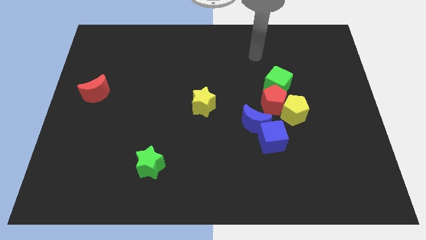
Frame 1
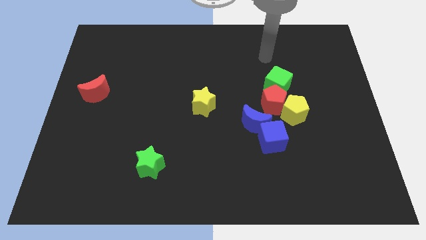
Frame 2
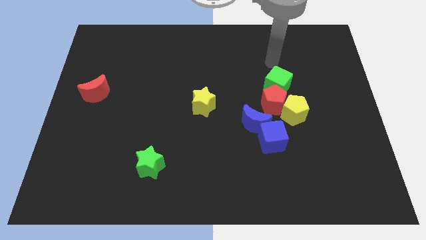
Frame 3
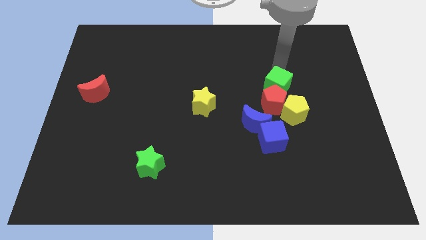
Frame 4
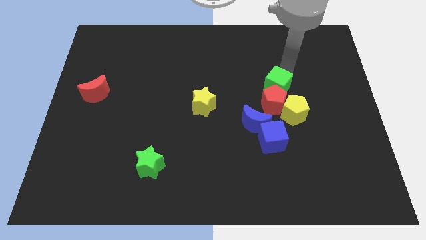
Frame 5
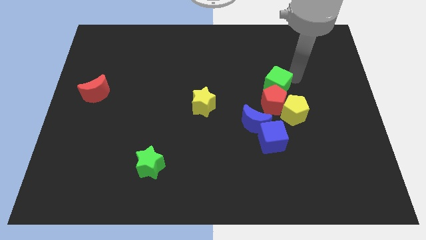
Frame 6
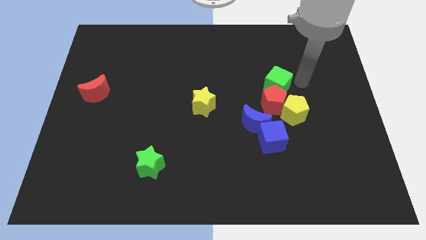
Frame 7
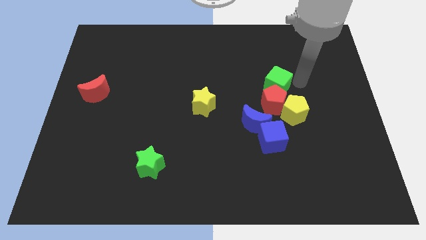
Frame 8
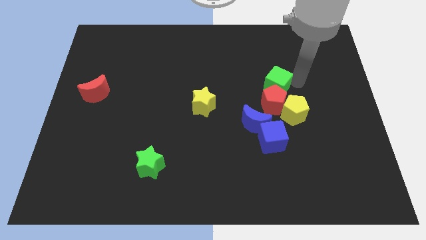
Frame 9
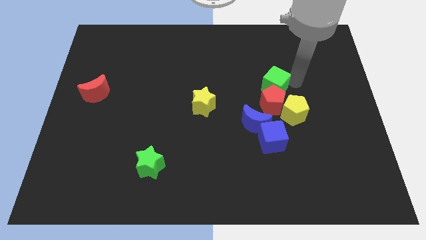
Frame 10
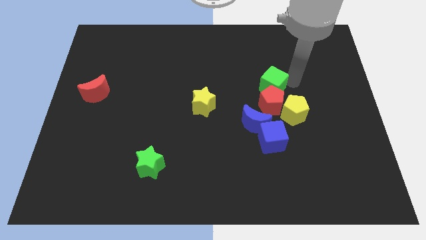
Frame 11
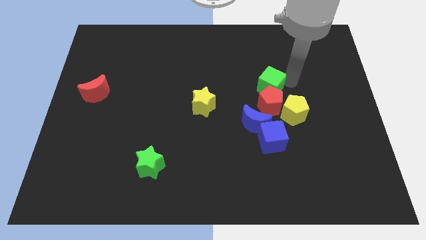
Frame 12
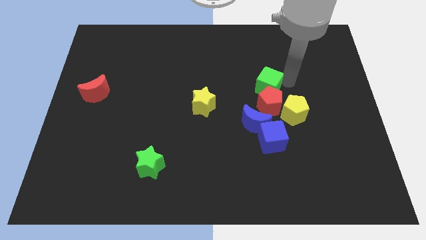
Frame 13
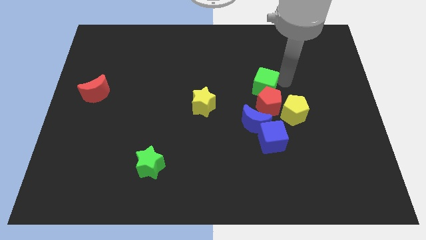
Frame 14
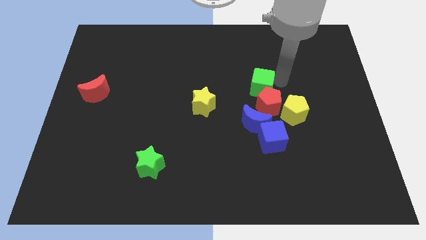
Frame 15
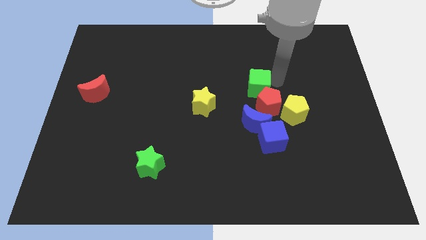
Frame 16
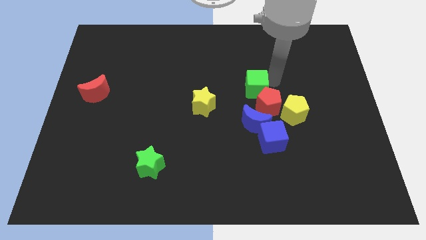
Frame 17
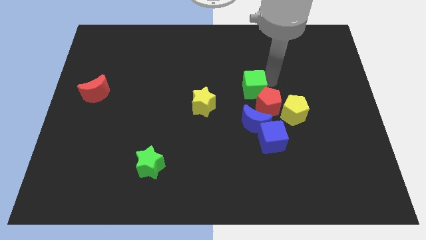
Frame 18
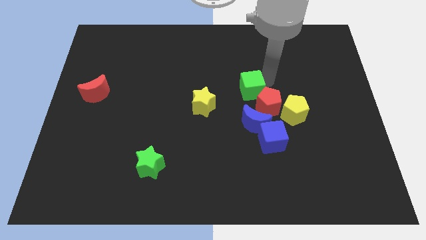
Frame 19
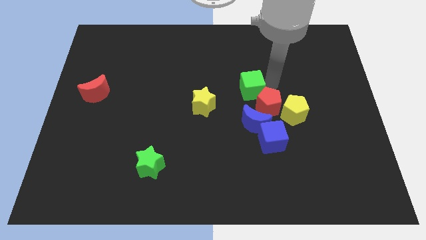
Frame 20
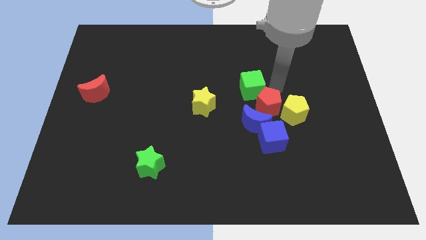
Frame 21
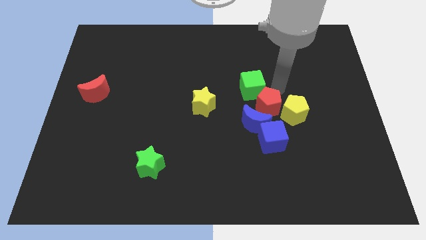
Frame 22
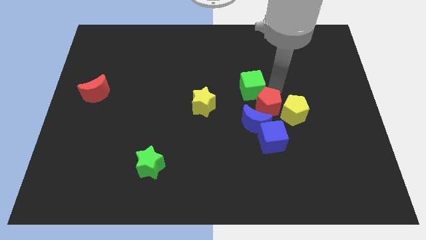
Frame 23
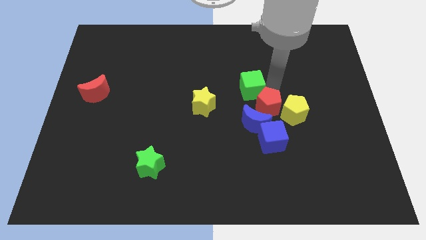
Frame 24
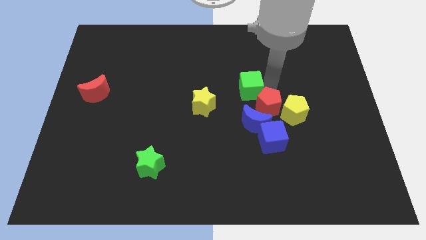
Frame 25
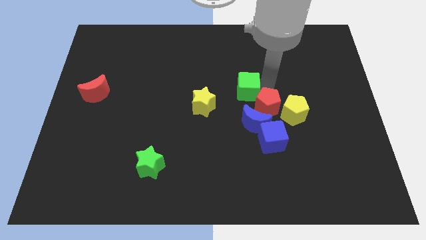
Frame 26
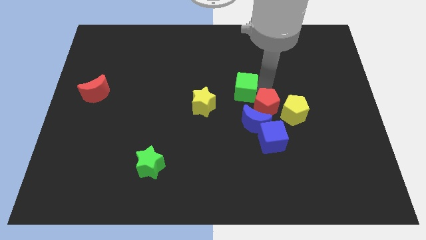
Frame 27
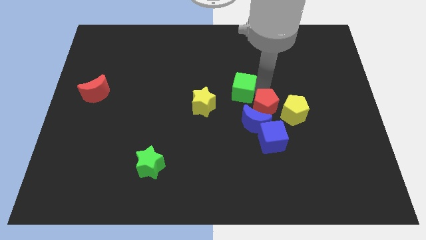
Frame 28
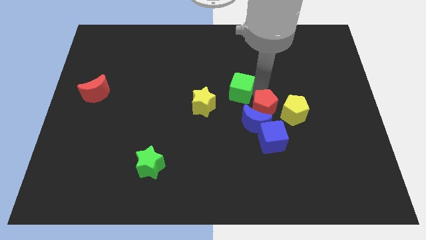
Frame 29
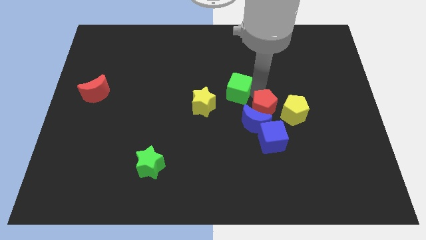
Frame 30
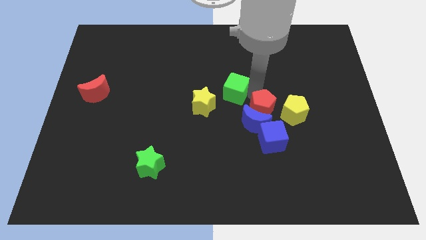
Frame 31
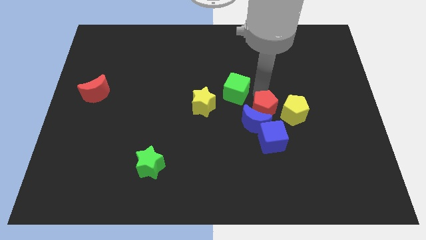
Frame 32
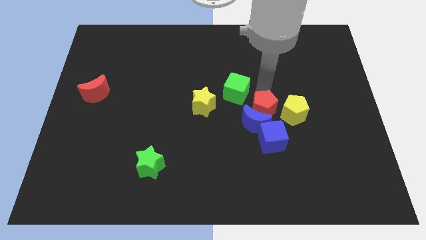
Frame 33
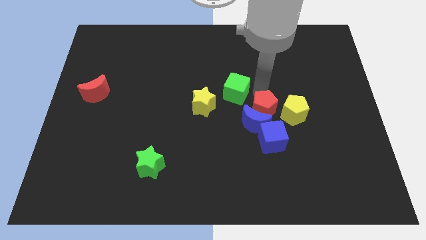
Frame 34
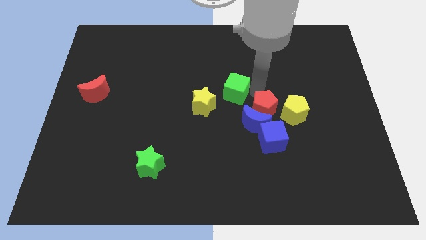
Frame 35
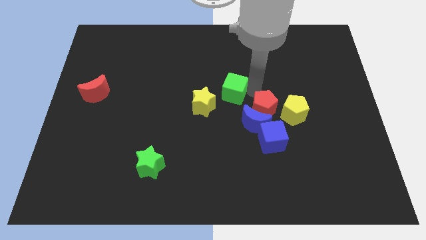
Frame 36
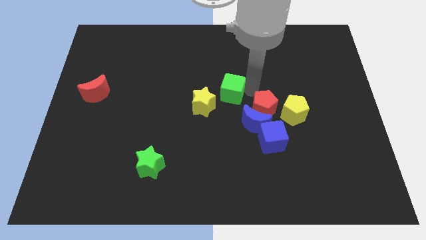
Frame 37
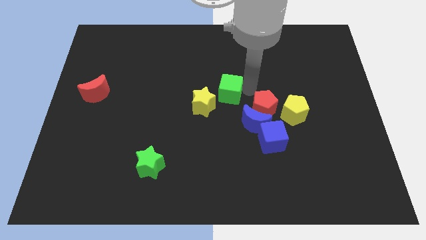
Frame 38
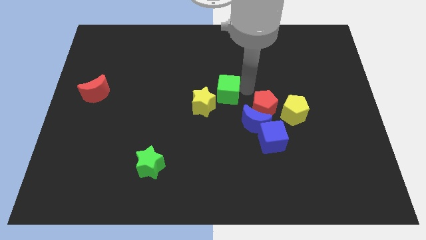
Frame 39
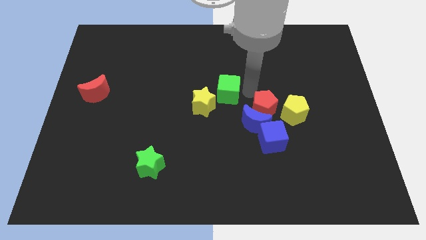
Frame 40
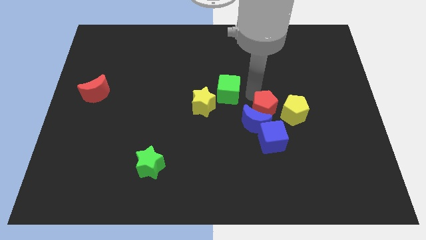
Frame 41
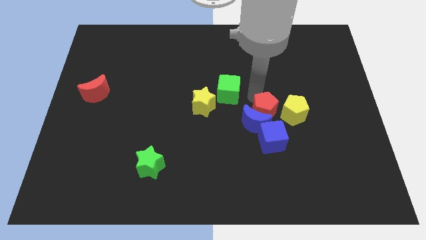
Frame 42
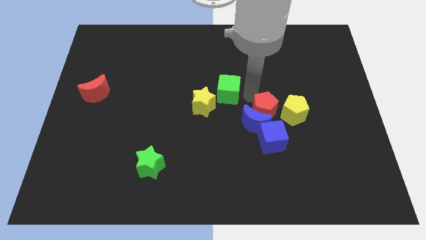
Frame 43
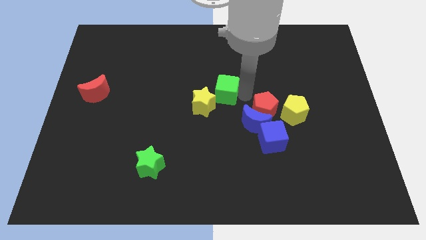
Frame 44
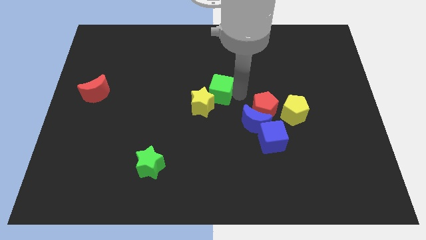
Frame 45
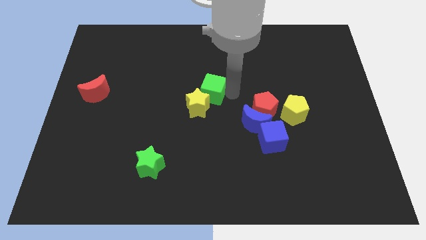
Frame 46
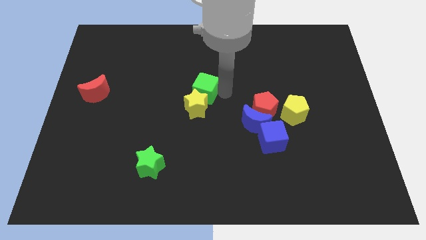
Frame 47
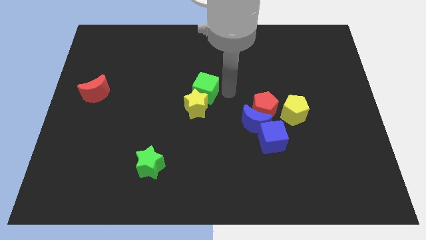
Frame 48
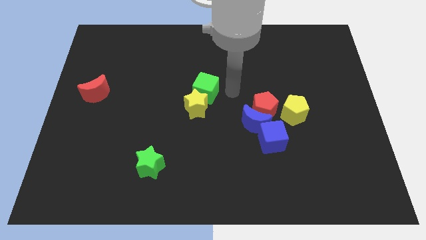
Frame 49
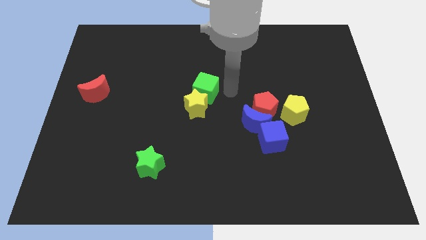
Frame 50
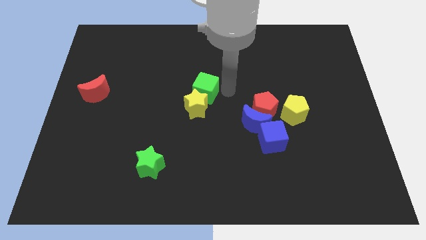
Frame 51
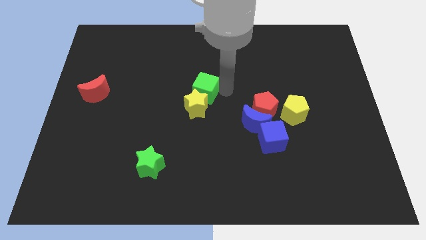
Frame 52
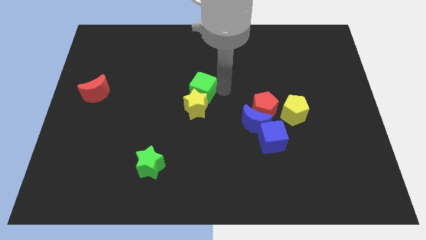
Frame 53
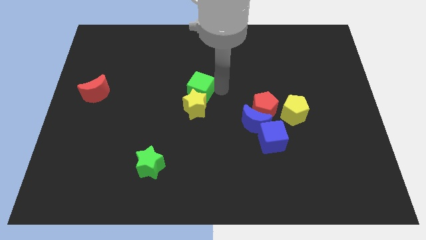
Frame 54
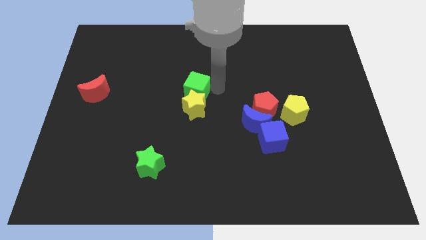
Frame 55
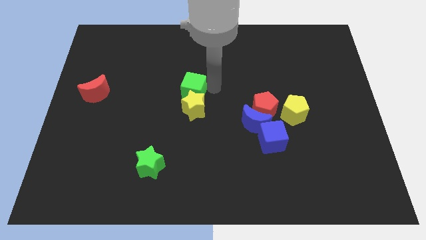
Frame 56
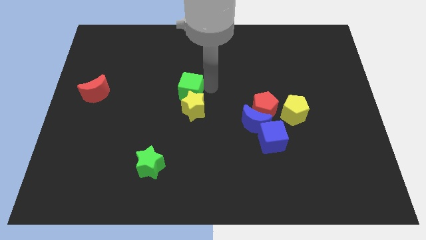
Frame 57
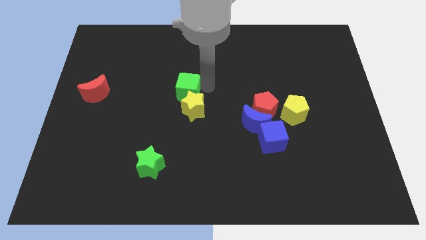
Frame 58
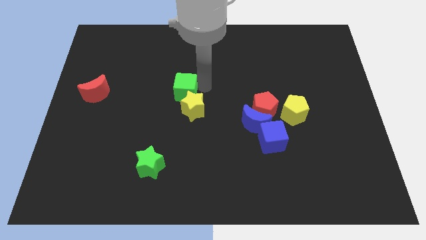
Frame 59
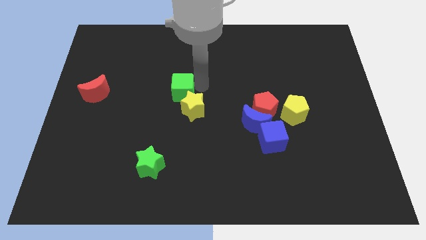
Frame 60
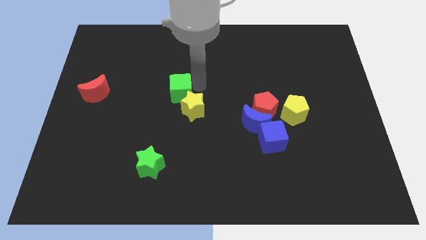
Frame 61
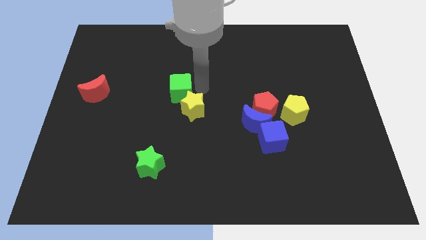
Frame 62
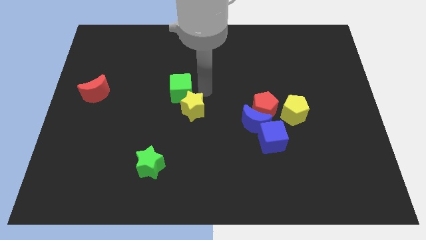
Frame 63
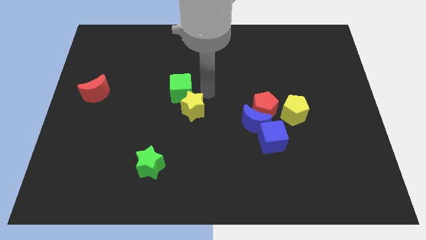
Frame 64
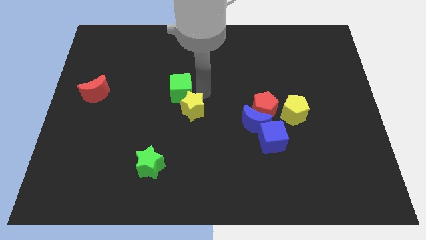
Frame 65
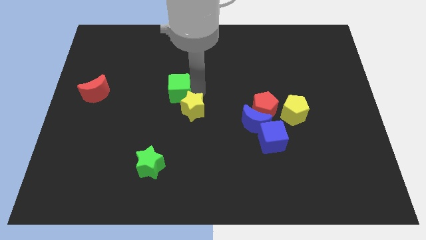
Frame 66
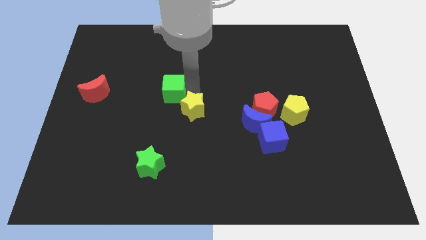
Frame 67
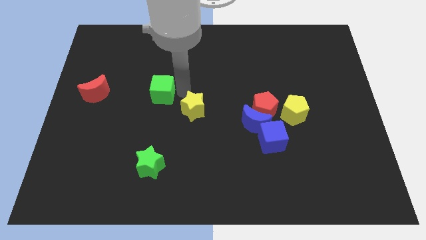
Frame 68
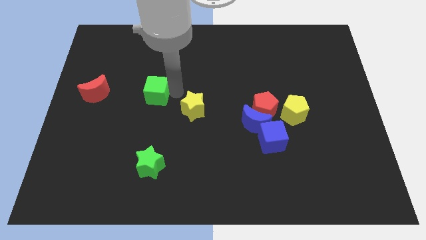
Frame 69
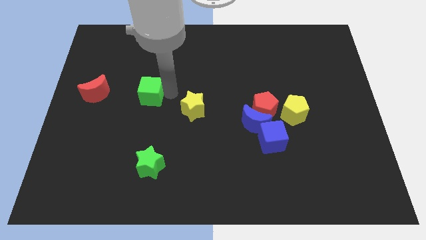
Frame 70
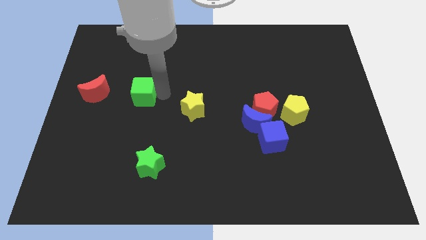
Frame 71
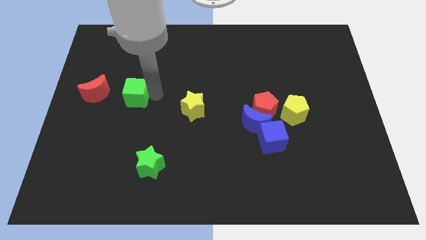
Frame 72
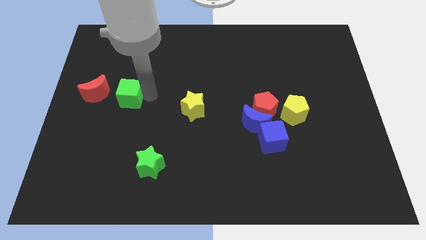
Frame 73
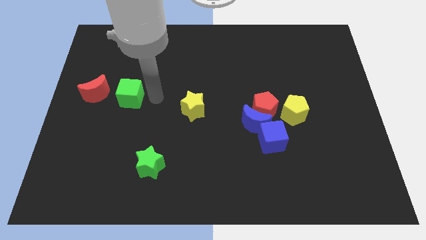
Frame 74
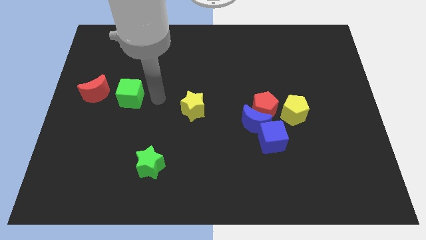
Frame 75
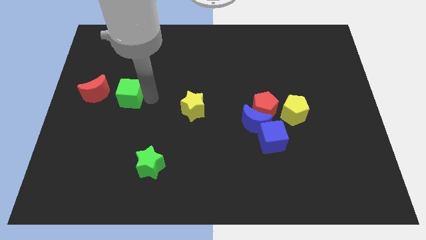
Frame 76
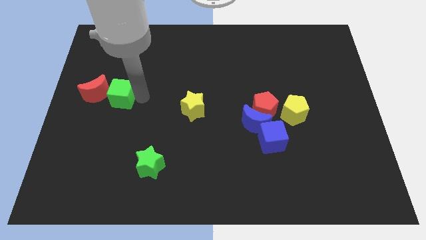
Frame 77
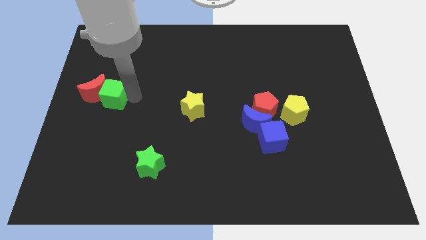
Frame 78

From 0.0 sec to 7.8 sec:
move the green cube towards the red moon
